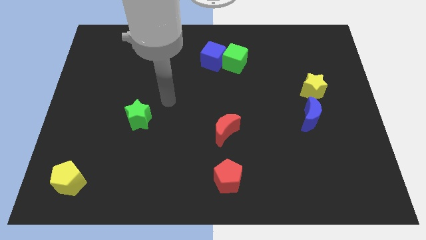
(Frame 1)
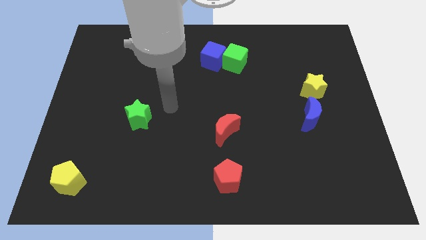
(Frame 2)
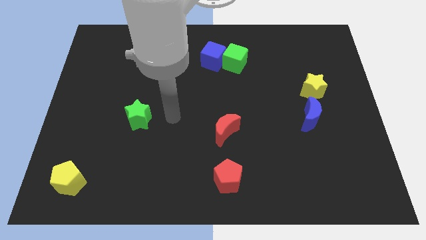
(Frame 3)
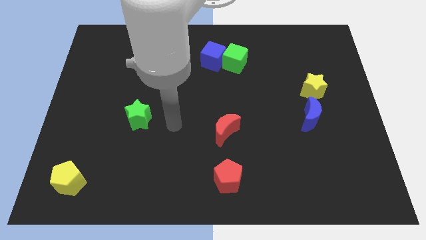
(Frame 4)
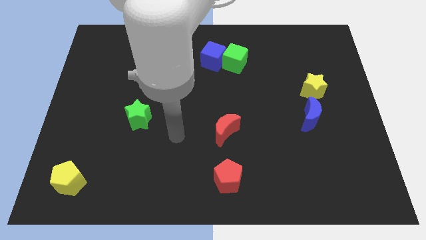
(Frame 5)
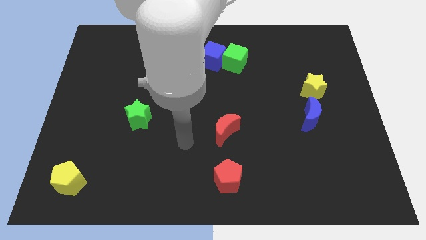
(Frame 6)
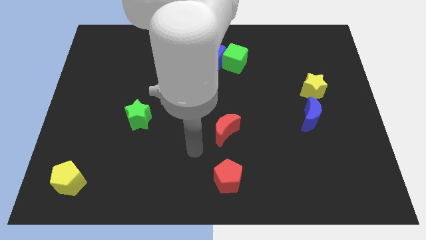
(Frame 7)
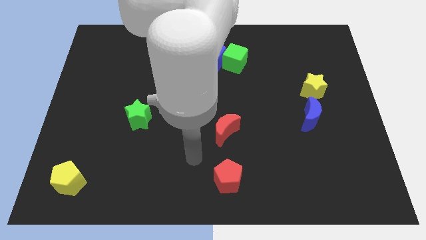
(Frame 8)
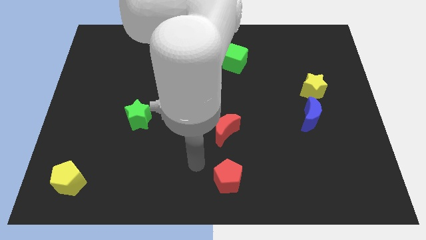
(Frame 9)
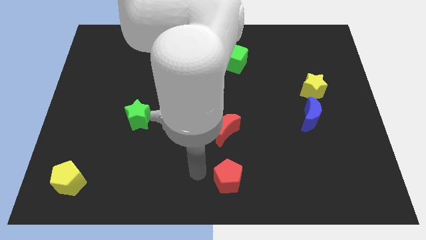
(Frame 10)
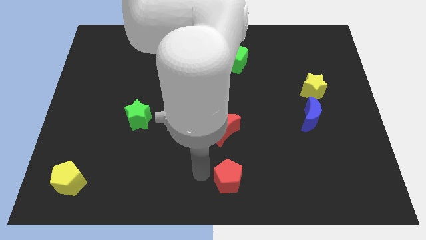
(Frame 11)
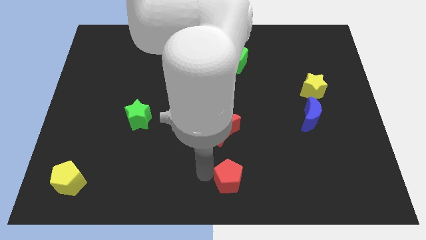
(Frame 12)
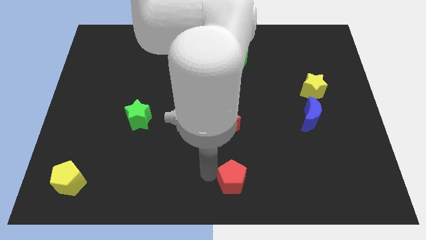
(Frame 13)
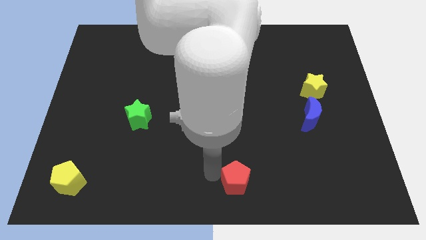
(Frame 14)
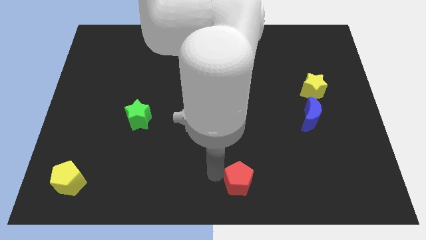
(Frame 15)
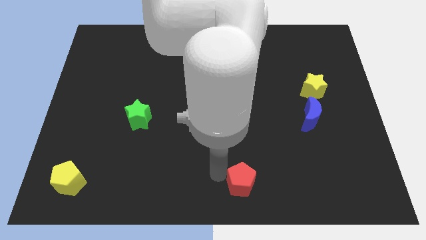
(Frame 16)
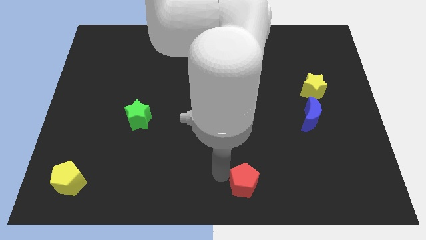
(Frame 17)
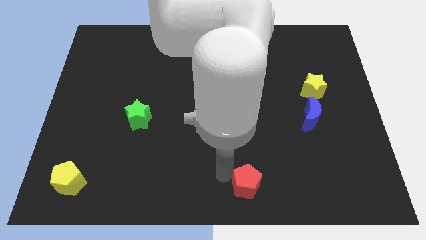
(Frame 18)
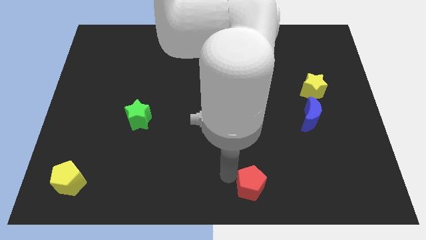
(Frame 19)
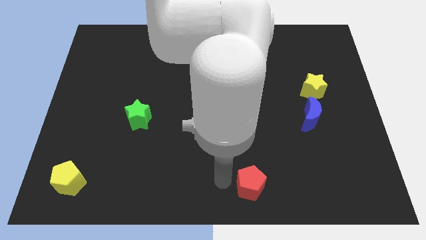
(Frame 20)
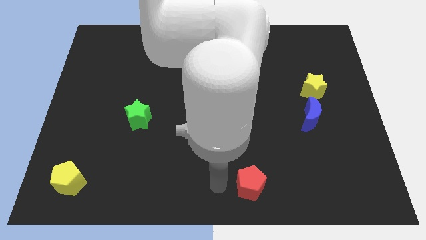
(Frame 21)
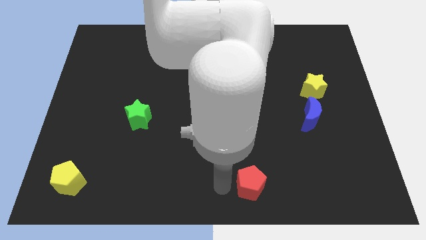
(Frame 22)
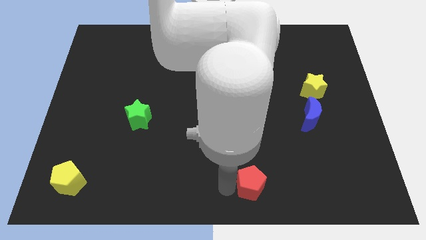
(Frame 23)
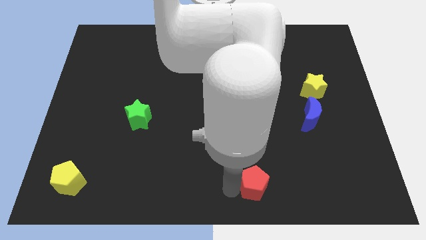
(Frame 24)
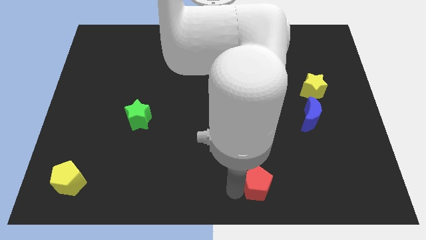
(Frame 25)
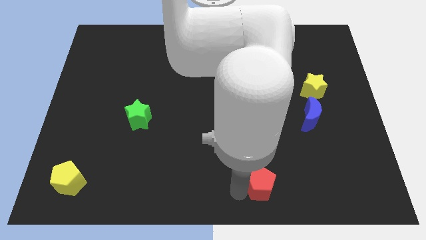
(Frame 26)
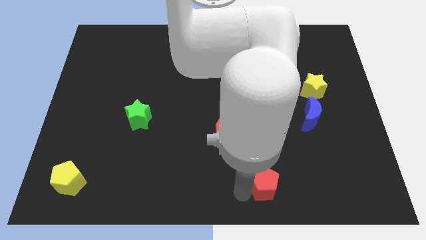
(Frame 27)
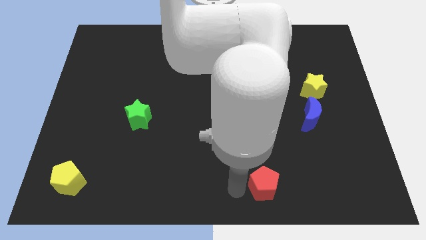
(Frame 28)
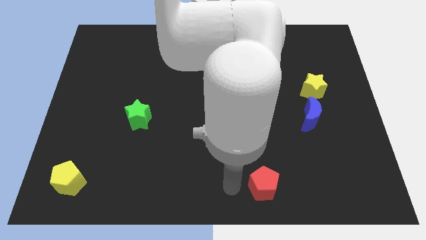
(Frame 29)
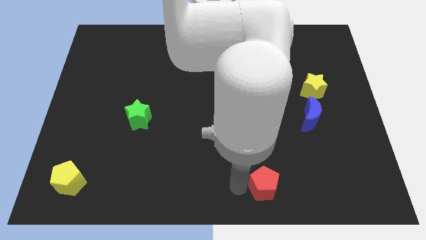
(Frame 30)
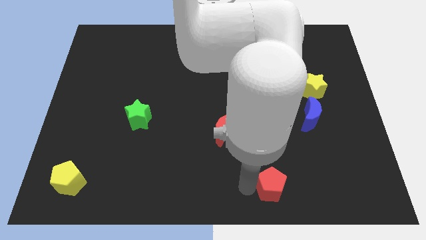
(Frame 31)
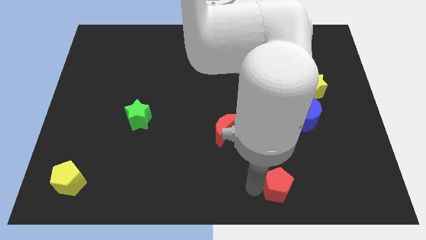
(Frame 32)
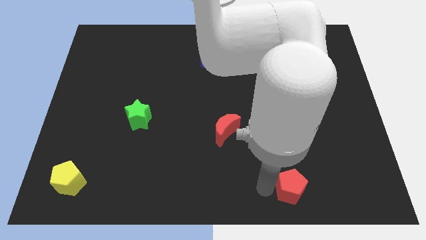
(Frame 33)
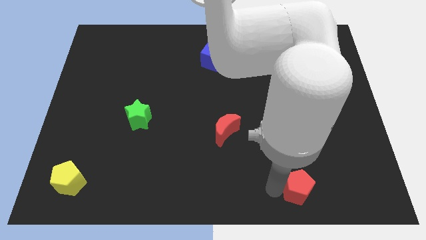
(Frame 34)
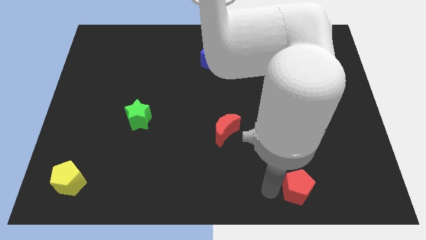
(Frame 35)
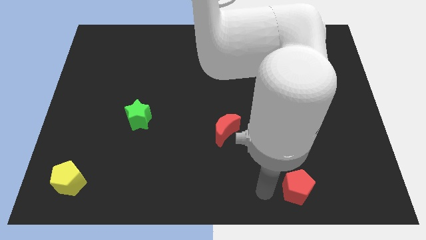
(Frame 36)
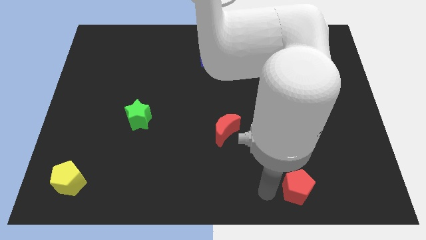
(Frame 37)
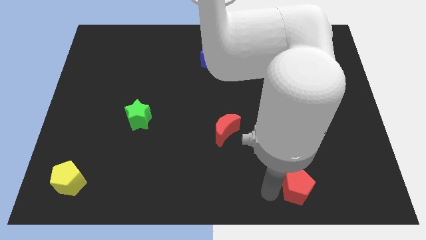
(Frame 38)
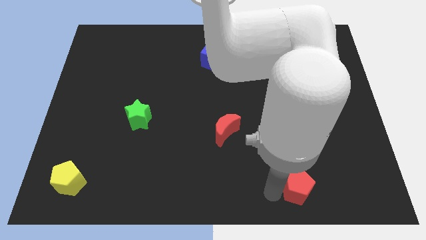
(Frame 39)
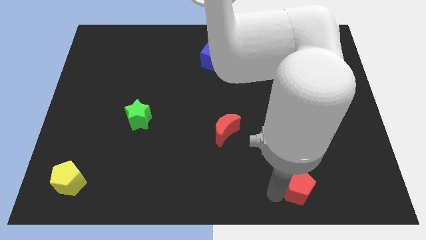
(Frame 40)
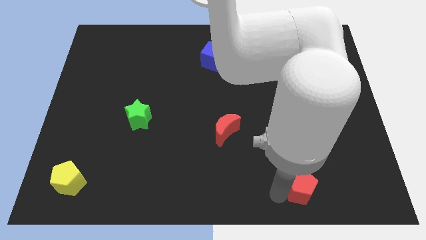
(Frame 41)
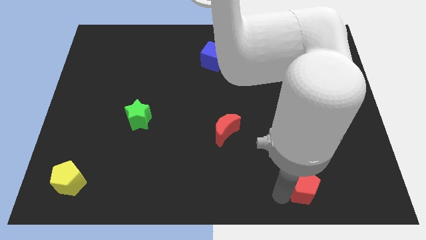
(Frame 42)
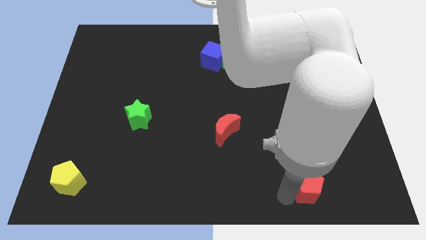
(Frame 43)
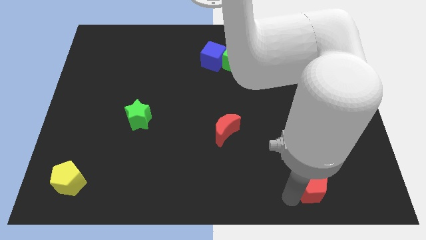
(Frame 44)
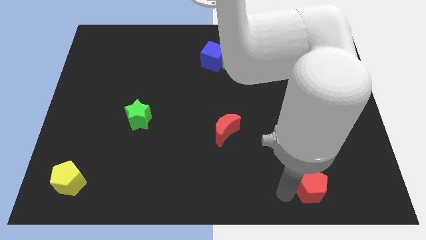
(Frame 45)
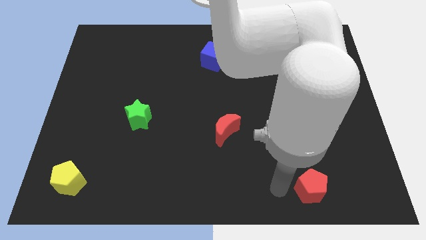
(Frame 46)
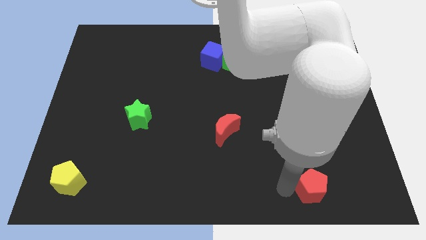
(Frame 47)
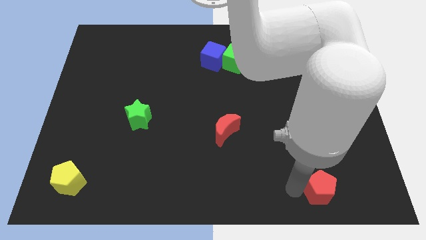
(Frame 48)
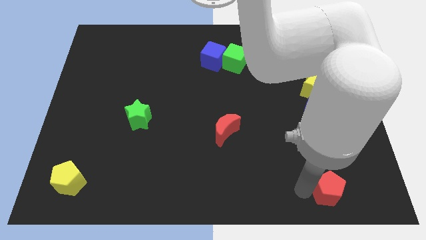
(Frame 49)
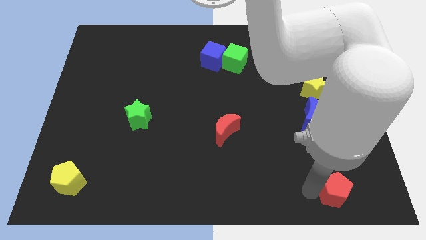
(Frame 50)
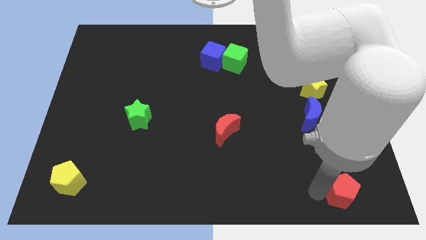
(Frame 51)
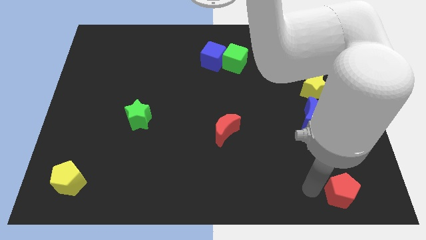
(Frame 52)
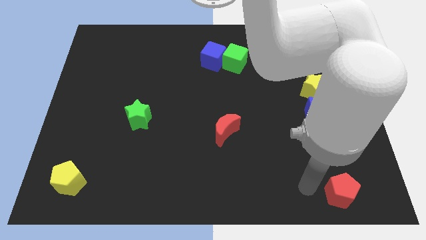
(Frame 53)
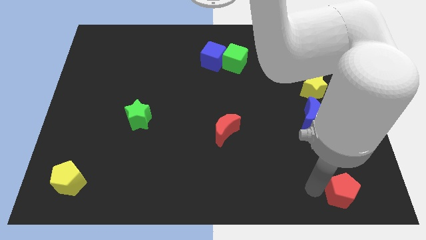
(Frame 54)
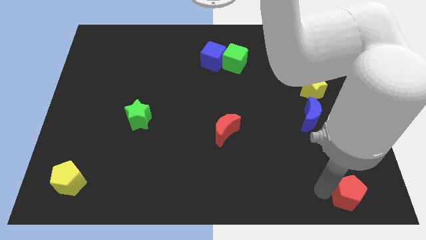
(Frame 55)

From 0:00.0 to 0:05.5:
push the red pentagon to the bottom right

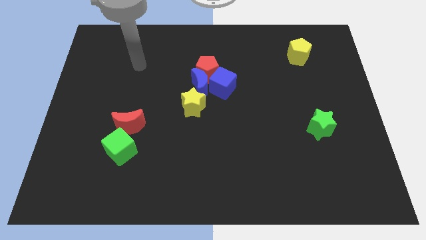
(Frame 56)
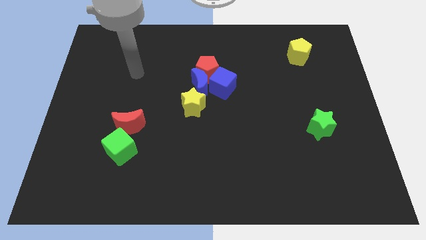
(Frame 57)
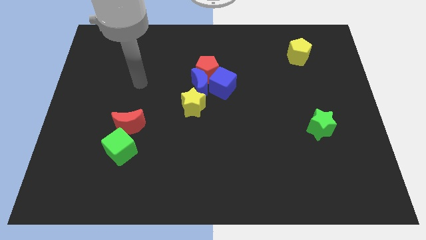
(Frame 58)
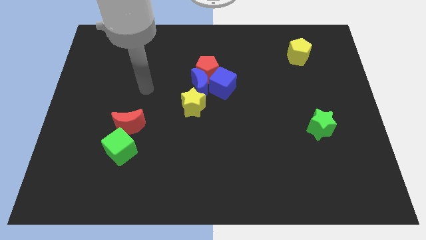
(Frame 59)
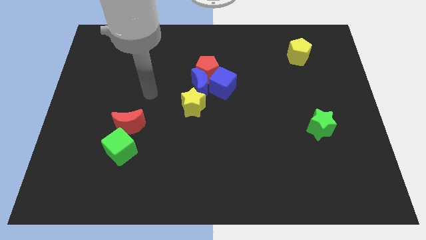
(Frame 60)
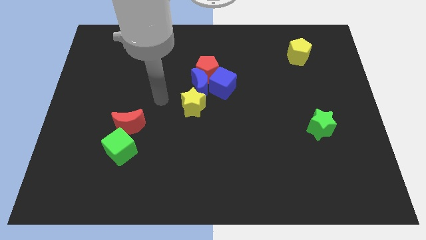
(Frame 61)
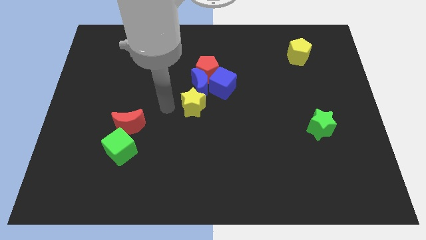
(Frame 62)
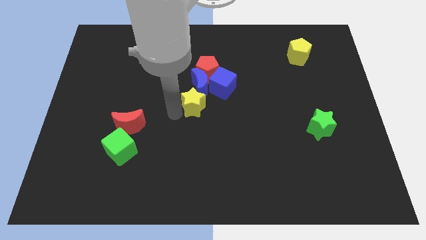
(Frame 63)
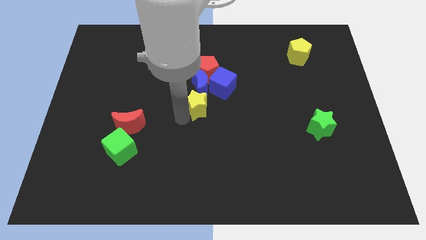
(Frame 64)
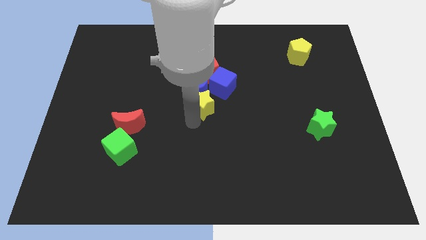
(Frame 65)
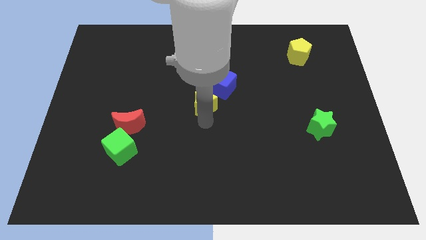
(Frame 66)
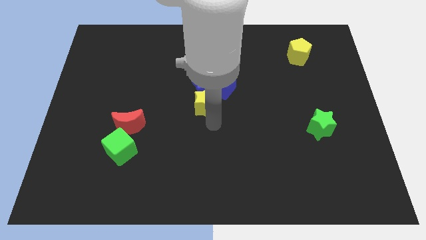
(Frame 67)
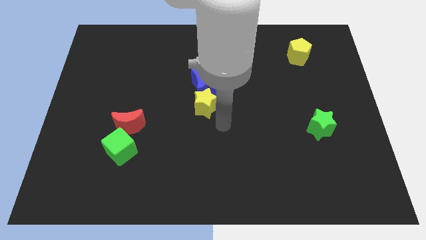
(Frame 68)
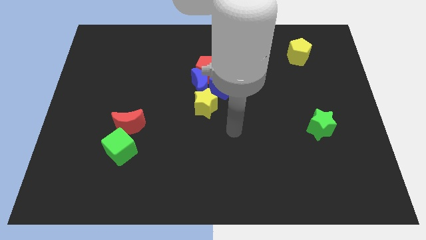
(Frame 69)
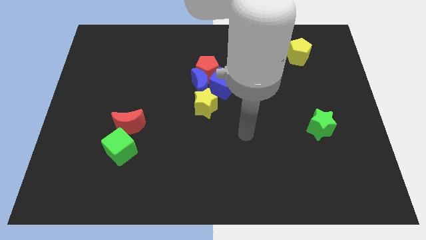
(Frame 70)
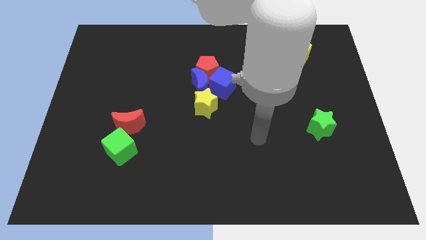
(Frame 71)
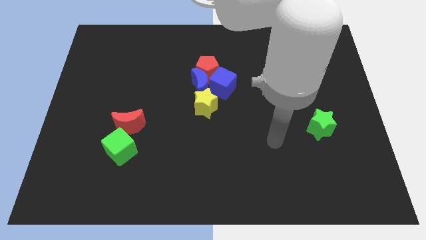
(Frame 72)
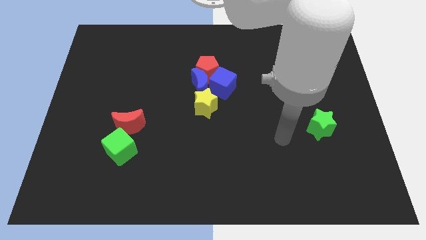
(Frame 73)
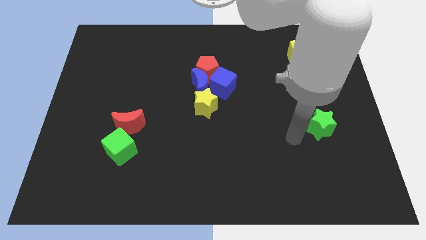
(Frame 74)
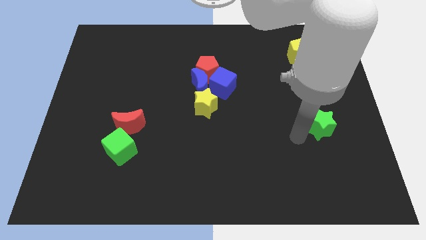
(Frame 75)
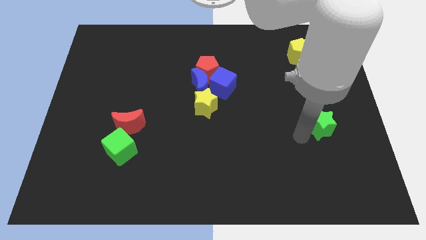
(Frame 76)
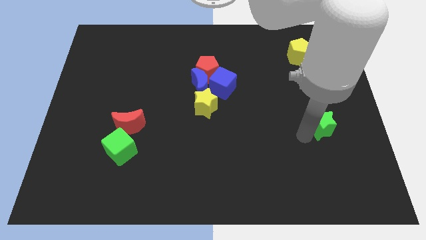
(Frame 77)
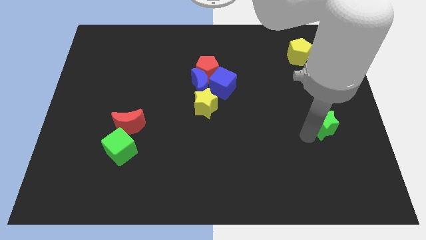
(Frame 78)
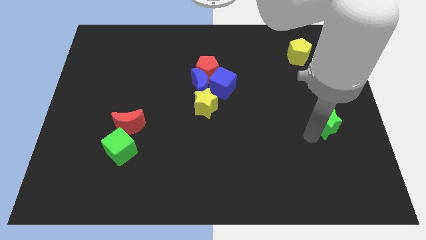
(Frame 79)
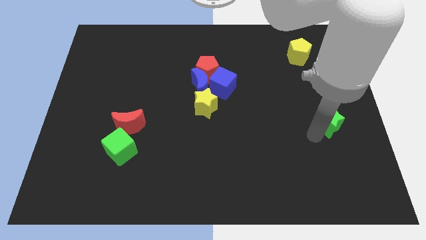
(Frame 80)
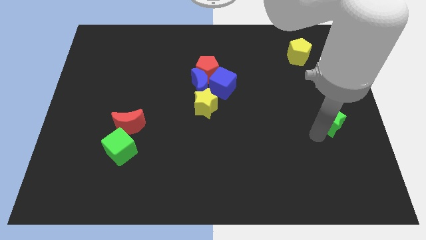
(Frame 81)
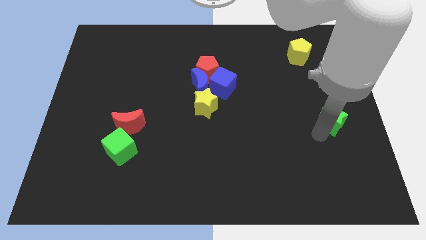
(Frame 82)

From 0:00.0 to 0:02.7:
push the green star to the right side

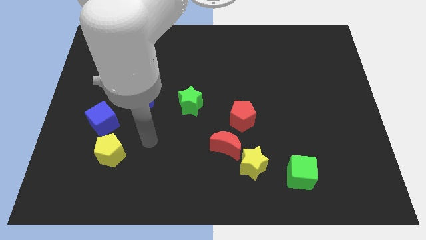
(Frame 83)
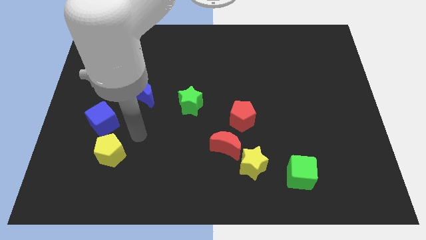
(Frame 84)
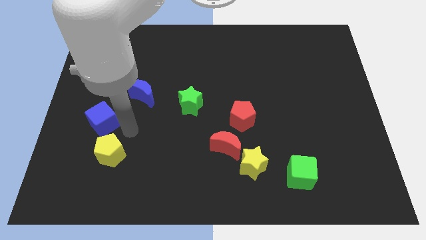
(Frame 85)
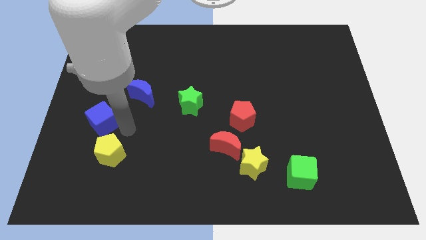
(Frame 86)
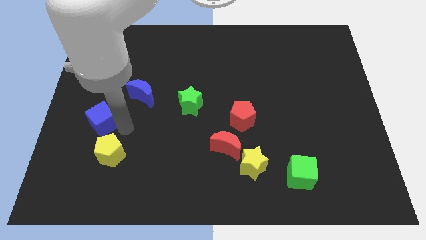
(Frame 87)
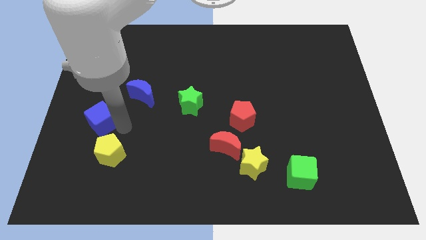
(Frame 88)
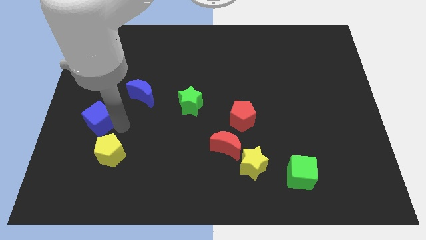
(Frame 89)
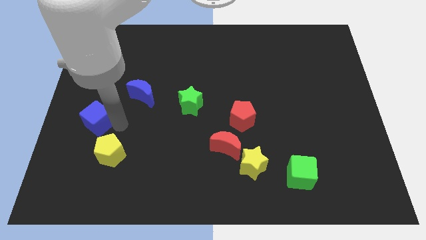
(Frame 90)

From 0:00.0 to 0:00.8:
put the blue cube to the left side of the board
